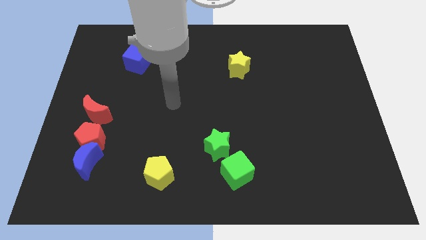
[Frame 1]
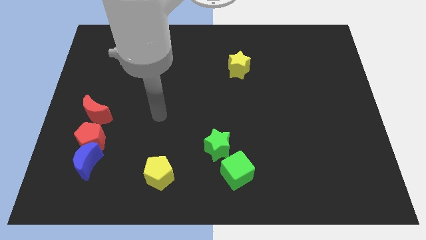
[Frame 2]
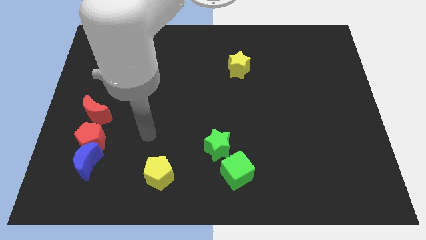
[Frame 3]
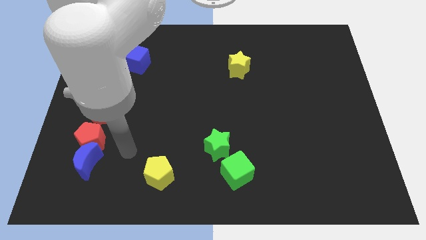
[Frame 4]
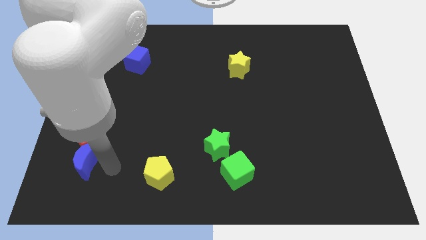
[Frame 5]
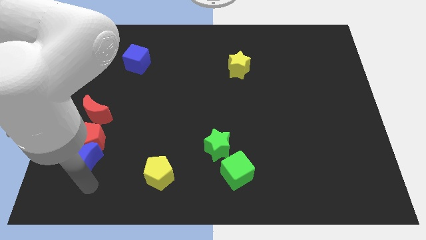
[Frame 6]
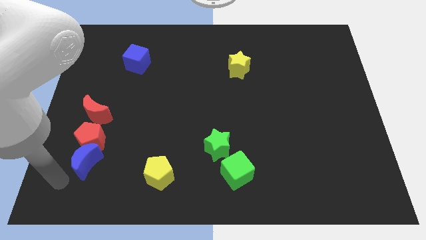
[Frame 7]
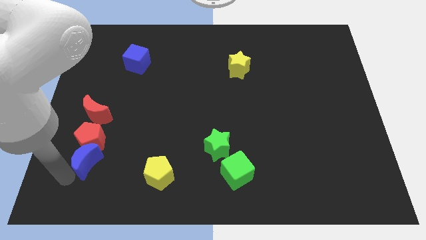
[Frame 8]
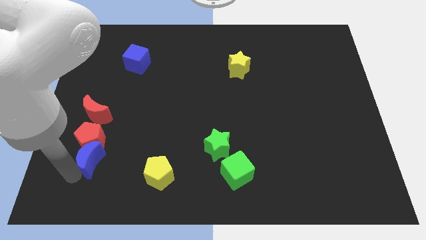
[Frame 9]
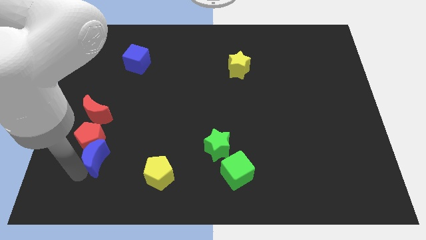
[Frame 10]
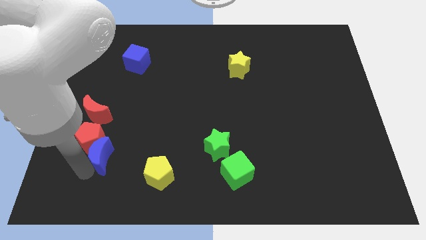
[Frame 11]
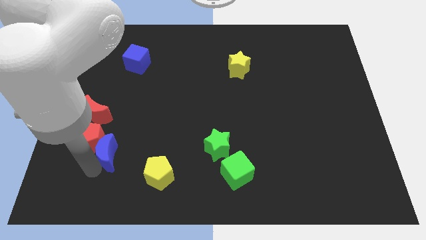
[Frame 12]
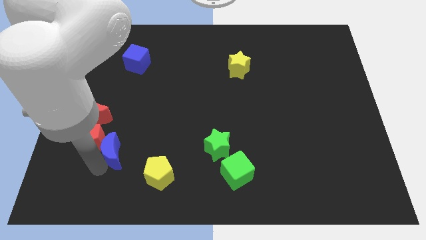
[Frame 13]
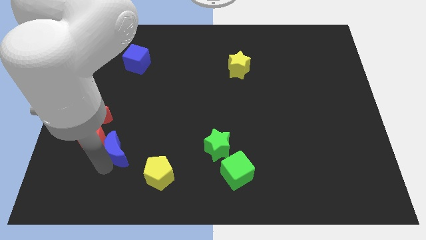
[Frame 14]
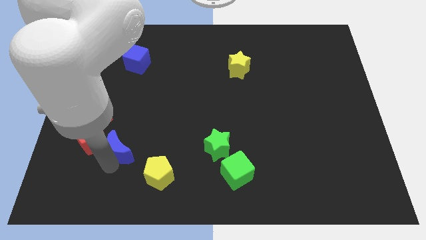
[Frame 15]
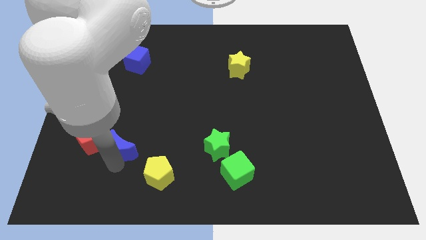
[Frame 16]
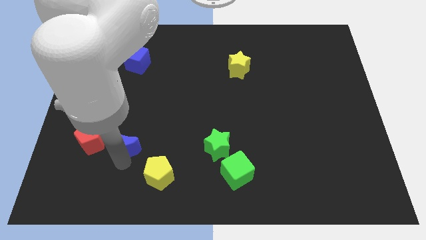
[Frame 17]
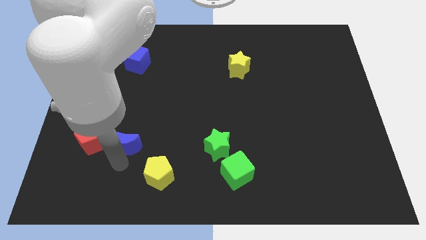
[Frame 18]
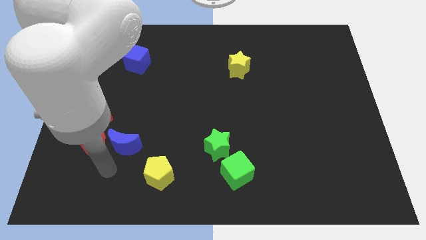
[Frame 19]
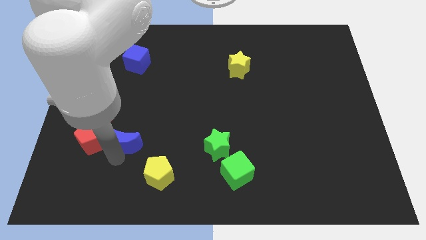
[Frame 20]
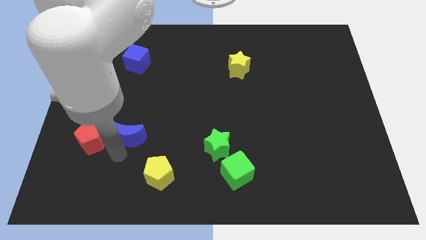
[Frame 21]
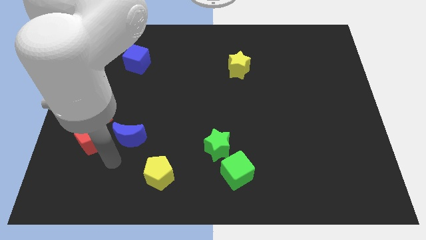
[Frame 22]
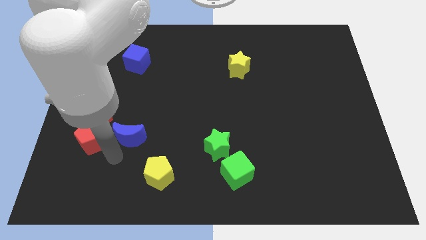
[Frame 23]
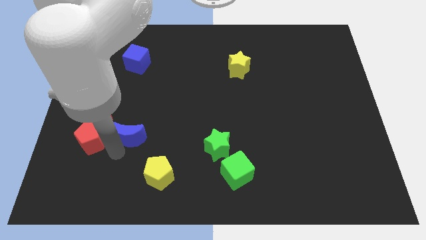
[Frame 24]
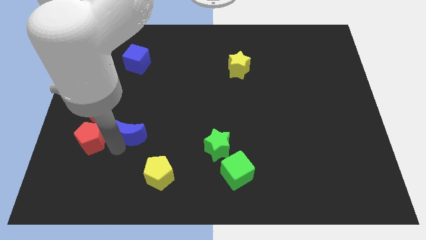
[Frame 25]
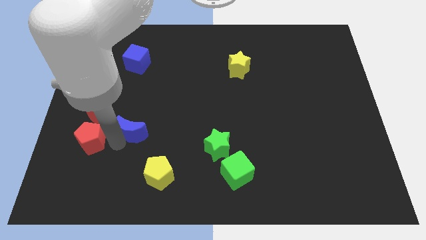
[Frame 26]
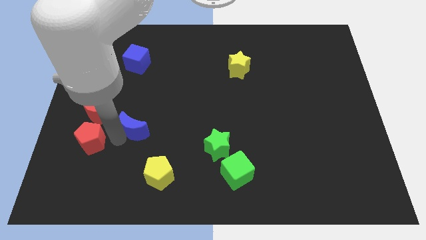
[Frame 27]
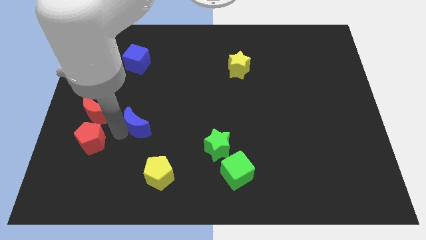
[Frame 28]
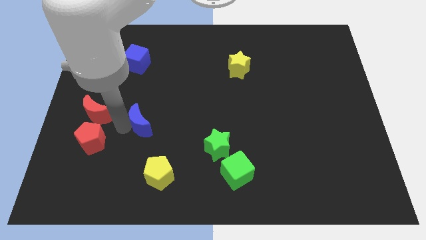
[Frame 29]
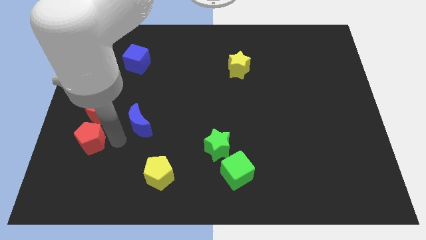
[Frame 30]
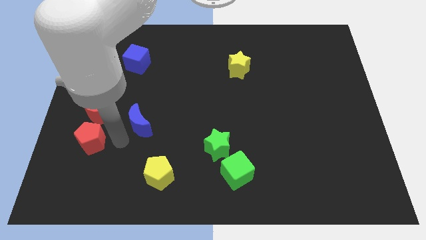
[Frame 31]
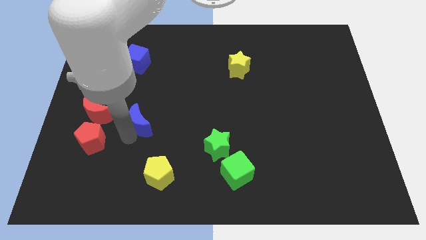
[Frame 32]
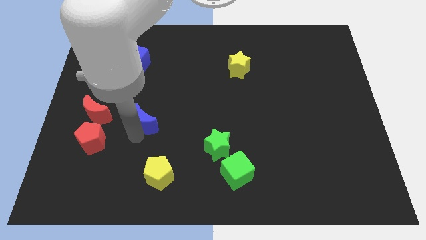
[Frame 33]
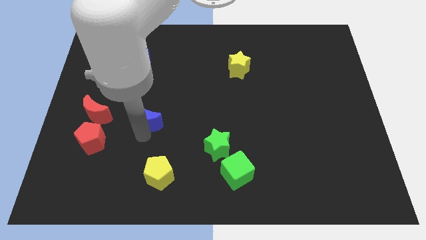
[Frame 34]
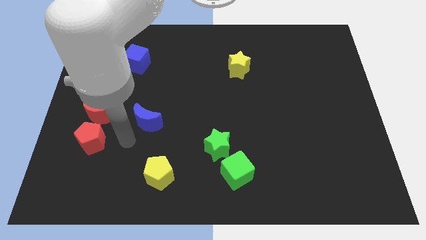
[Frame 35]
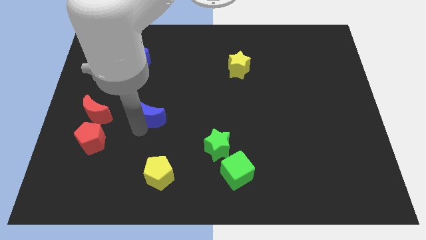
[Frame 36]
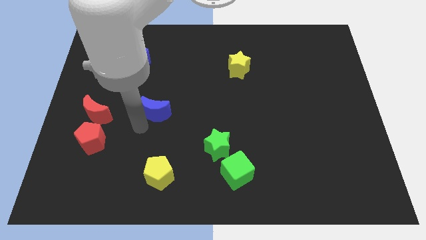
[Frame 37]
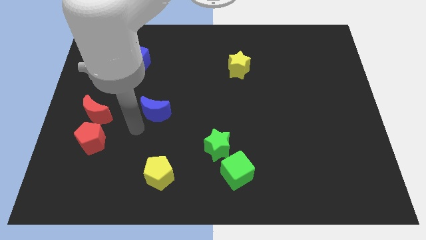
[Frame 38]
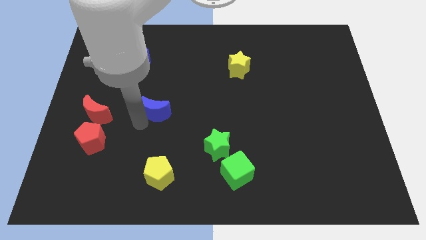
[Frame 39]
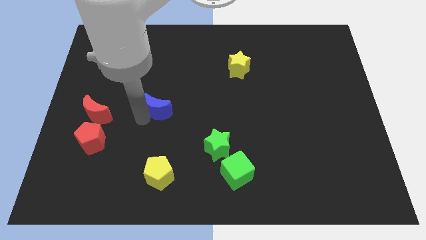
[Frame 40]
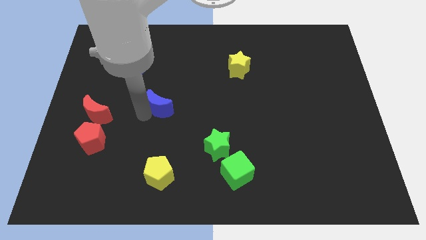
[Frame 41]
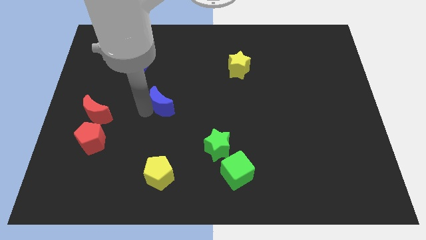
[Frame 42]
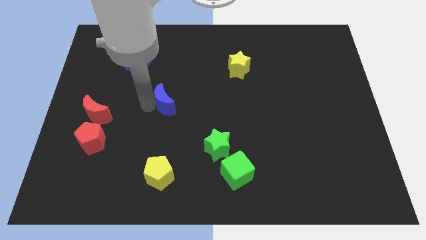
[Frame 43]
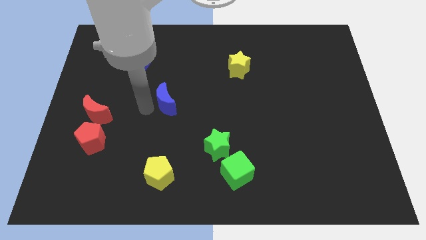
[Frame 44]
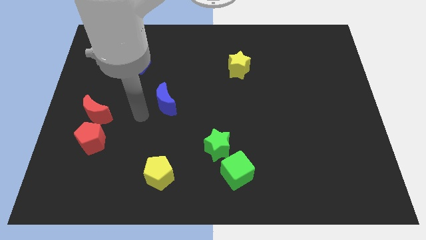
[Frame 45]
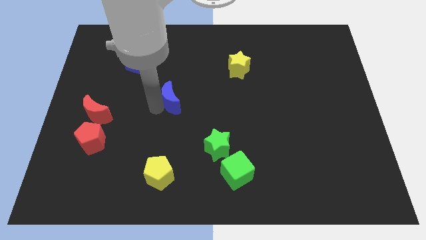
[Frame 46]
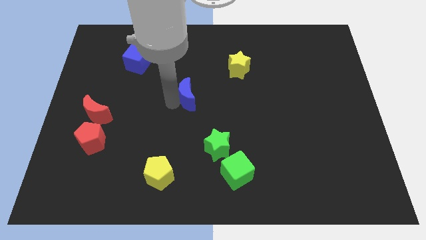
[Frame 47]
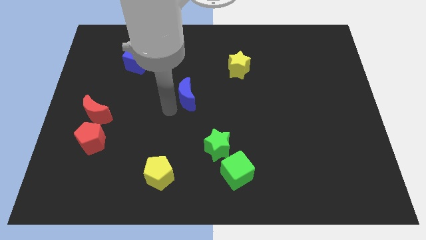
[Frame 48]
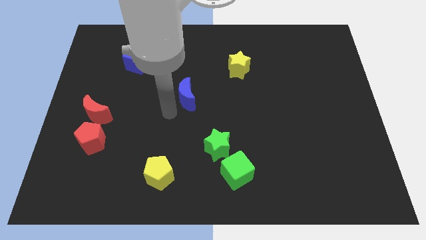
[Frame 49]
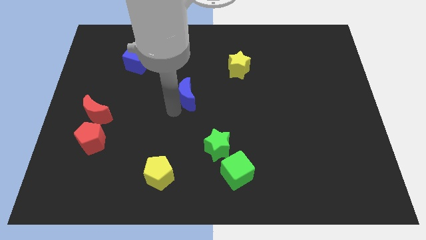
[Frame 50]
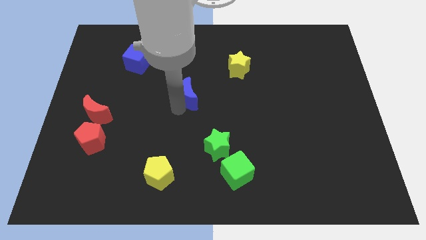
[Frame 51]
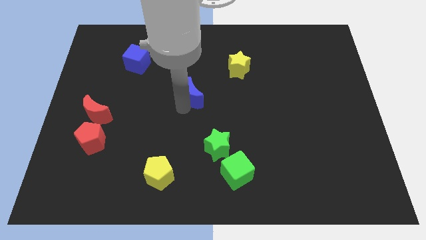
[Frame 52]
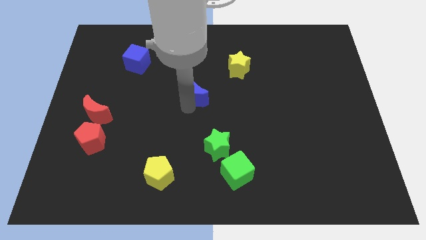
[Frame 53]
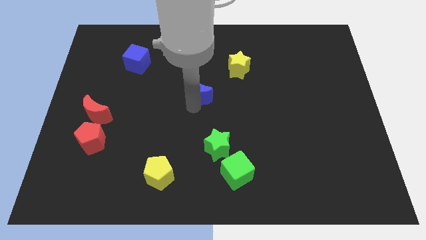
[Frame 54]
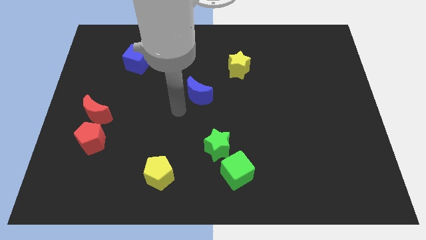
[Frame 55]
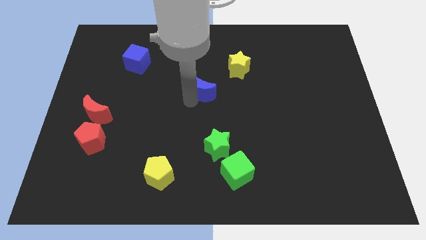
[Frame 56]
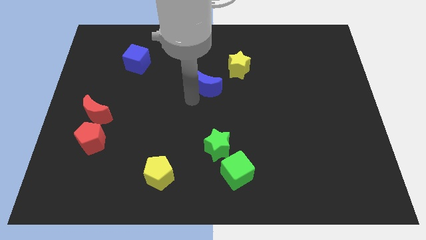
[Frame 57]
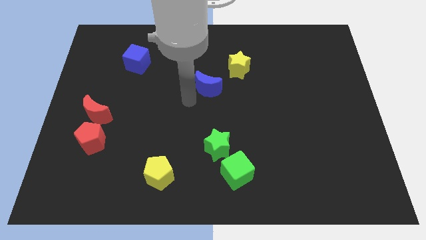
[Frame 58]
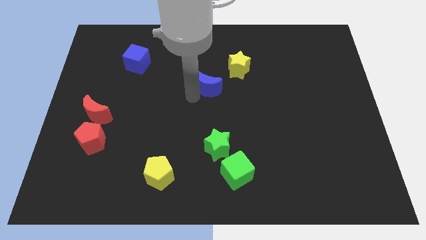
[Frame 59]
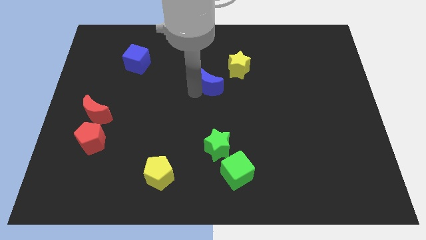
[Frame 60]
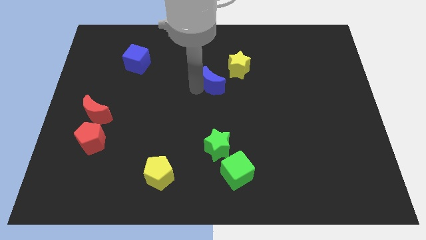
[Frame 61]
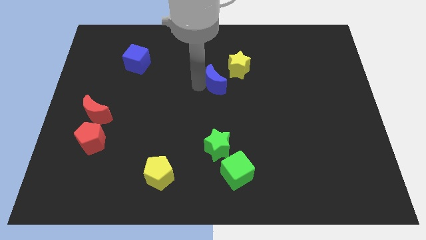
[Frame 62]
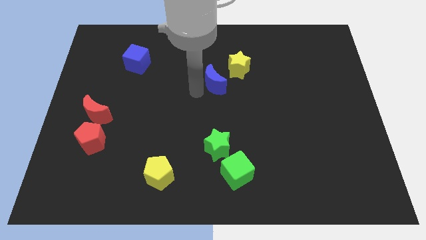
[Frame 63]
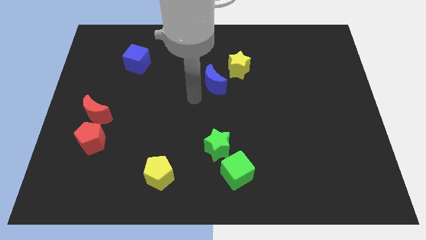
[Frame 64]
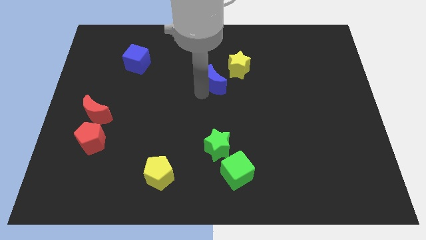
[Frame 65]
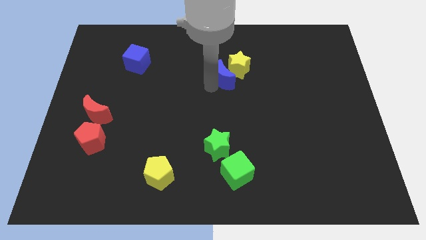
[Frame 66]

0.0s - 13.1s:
put the blue moon towards the yellow star

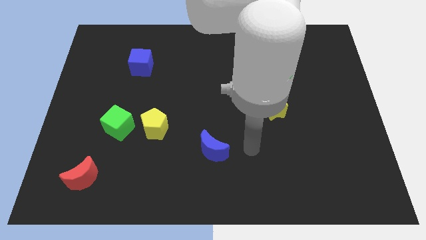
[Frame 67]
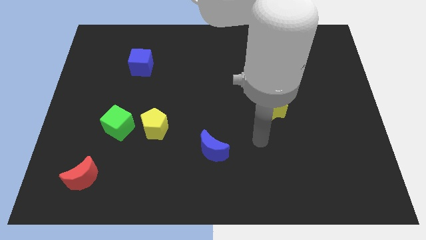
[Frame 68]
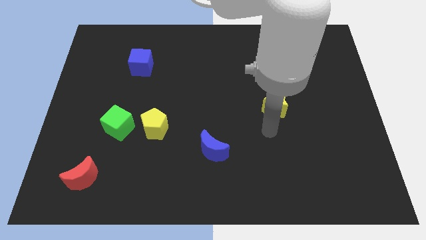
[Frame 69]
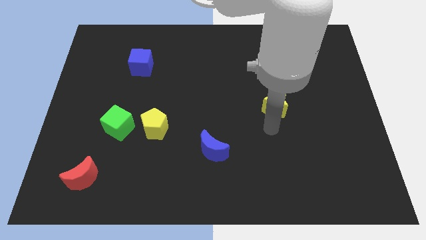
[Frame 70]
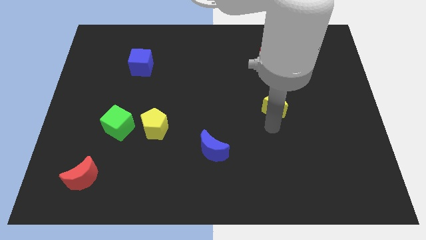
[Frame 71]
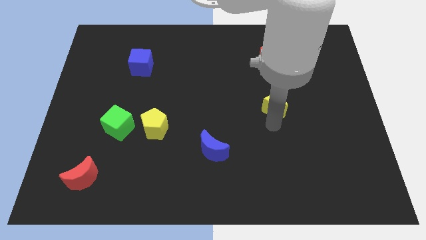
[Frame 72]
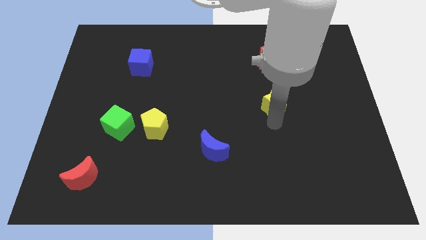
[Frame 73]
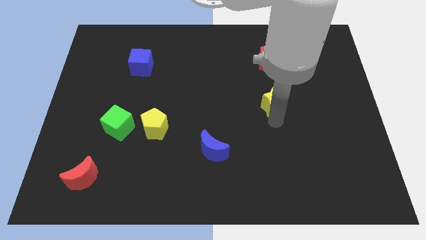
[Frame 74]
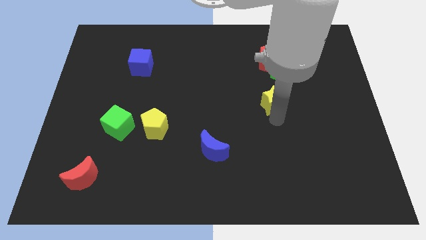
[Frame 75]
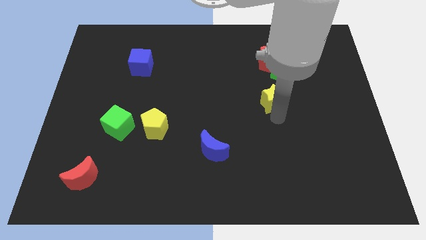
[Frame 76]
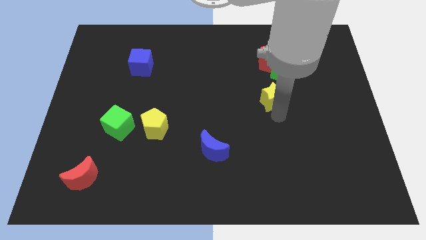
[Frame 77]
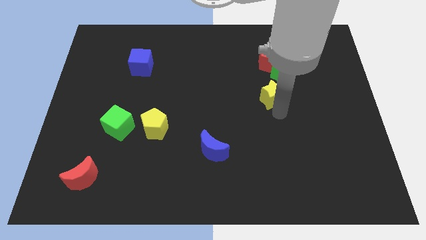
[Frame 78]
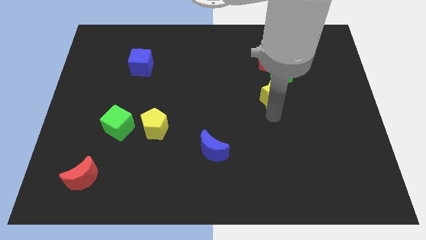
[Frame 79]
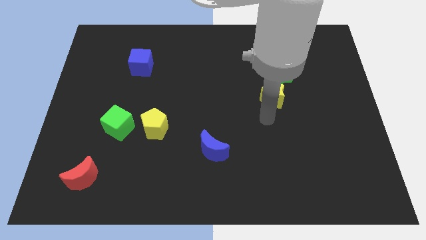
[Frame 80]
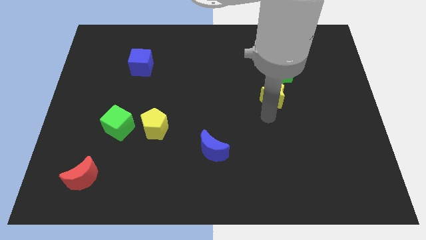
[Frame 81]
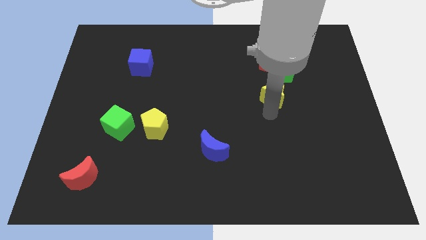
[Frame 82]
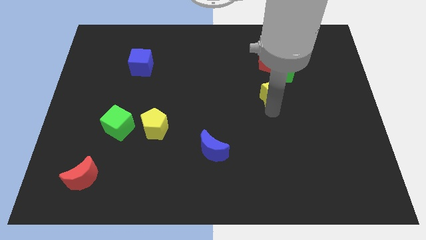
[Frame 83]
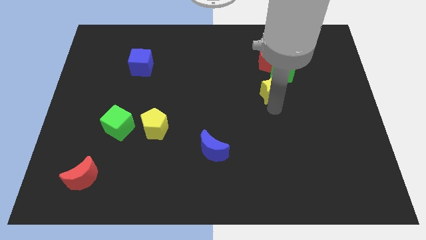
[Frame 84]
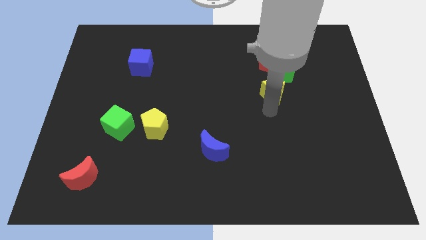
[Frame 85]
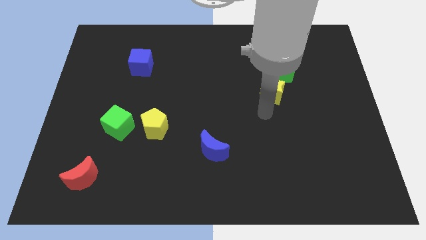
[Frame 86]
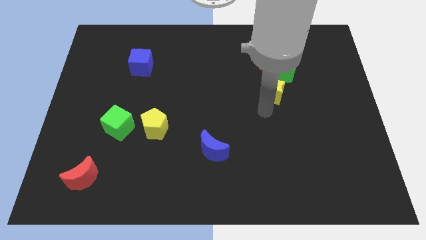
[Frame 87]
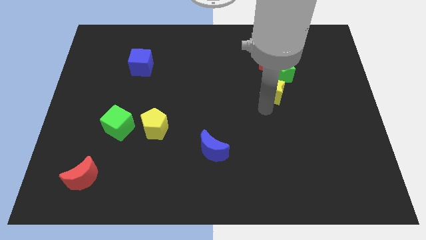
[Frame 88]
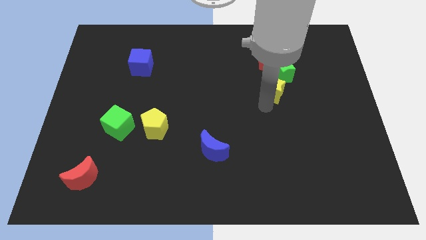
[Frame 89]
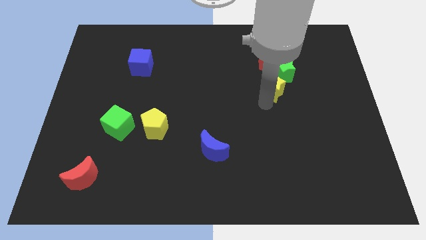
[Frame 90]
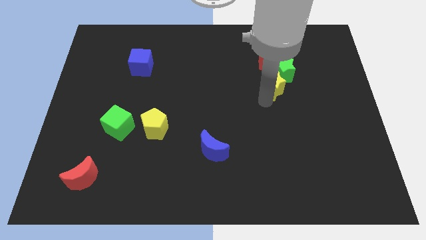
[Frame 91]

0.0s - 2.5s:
put the yellow star next to the green star
